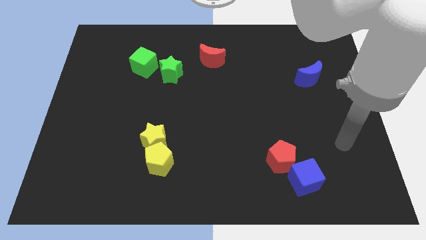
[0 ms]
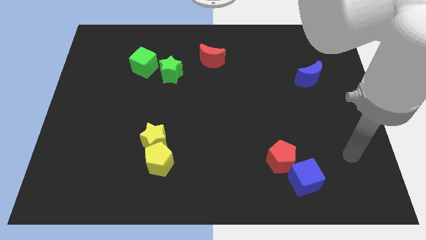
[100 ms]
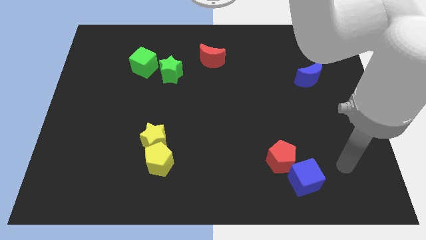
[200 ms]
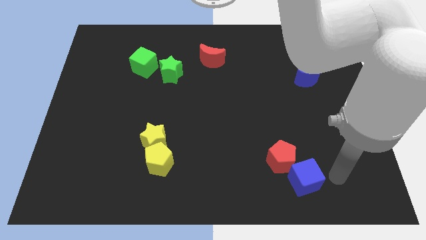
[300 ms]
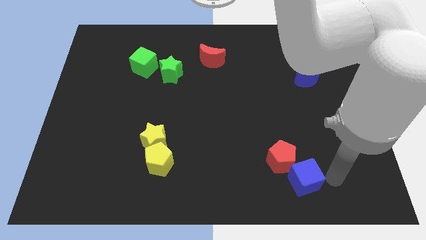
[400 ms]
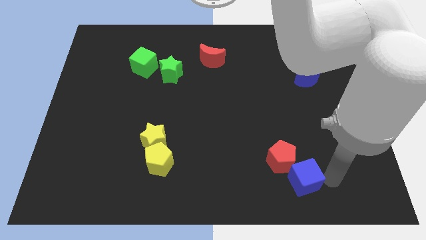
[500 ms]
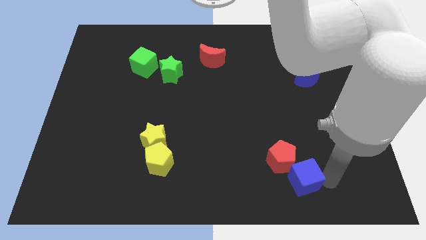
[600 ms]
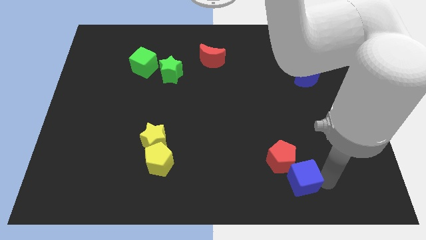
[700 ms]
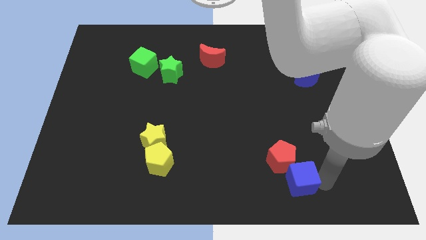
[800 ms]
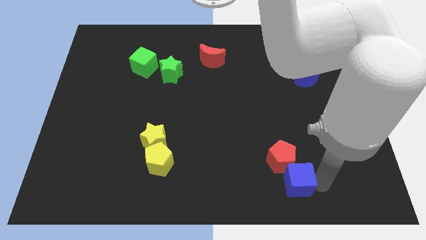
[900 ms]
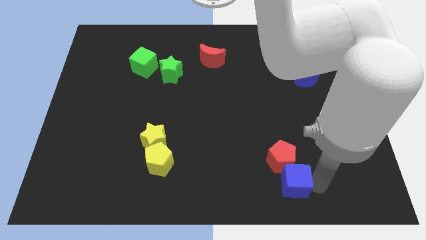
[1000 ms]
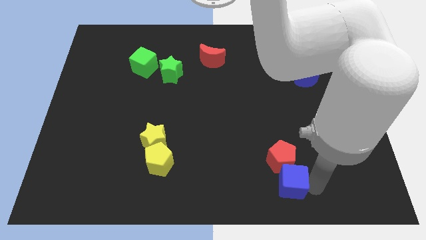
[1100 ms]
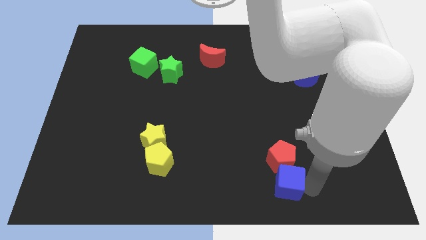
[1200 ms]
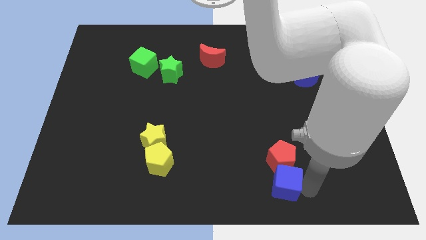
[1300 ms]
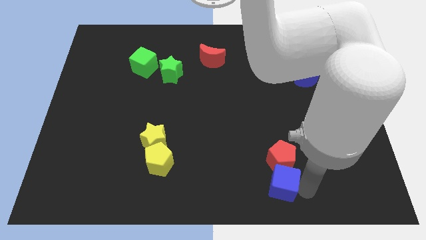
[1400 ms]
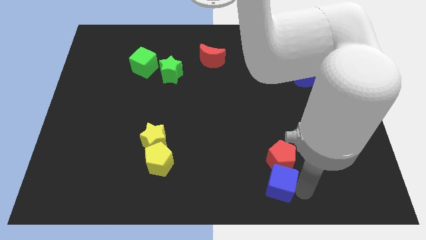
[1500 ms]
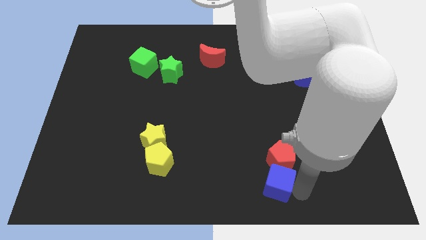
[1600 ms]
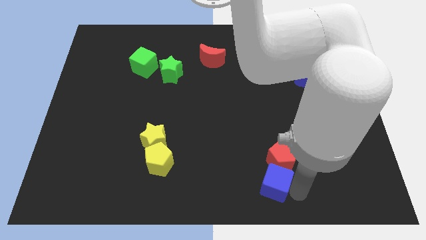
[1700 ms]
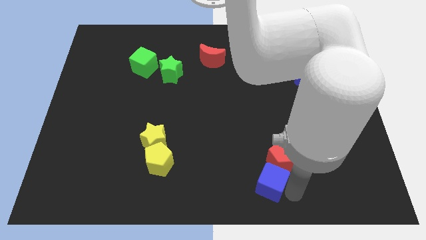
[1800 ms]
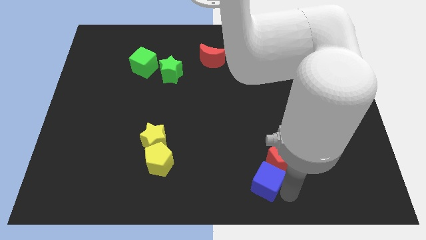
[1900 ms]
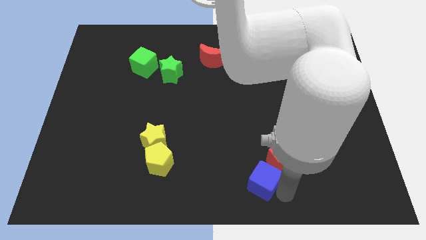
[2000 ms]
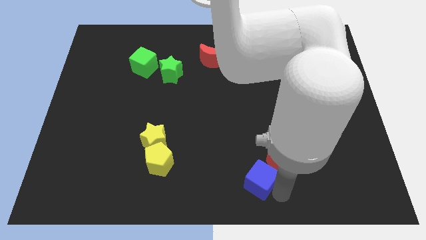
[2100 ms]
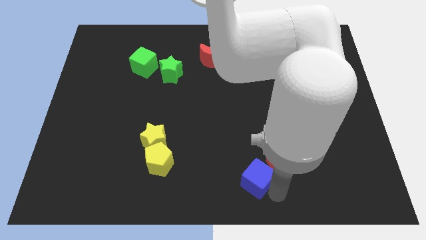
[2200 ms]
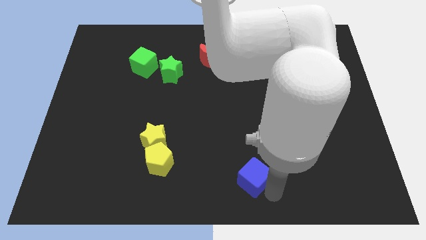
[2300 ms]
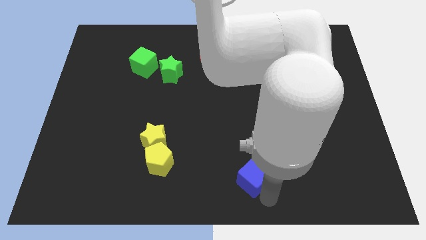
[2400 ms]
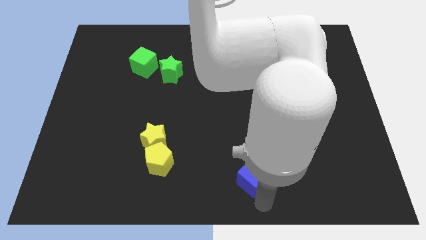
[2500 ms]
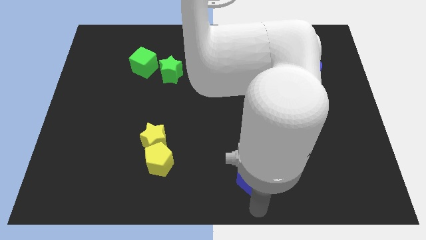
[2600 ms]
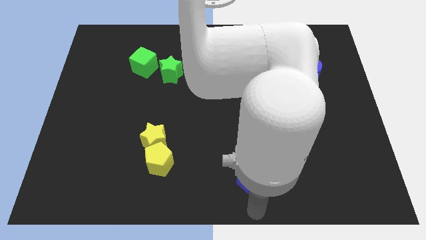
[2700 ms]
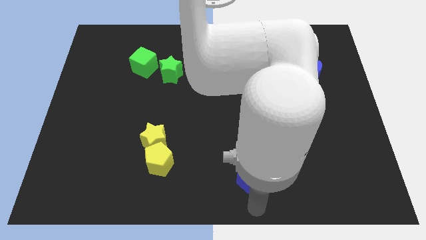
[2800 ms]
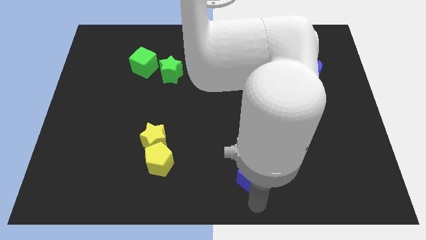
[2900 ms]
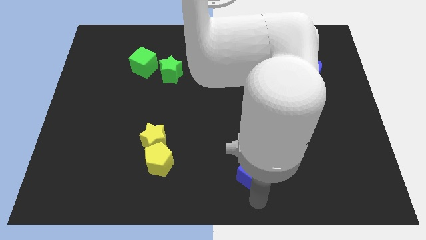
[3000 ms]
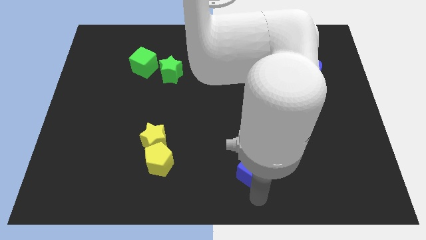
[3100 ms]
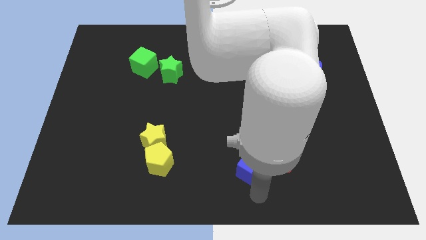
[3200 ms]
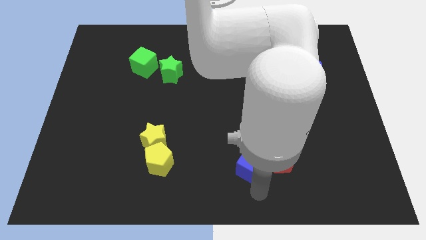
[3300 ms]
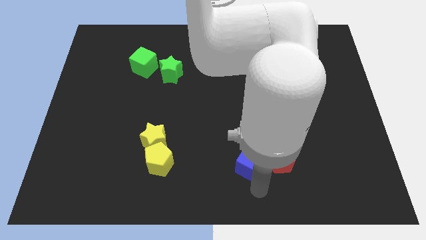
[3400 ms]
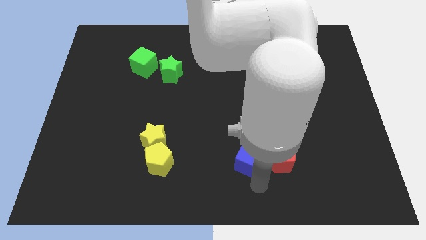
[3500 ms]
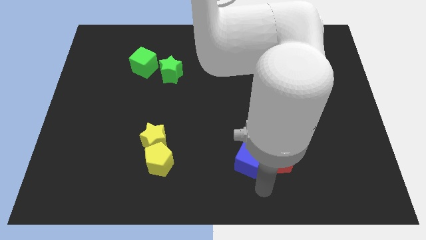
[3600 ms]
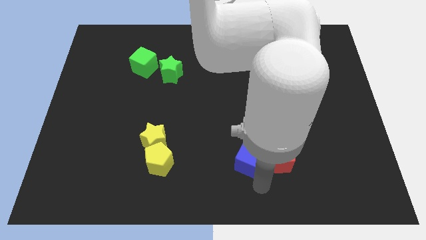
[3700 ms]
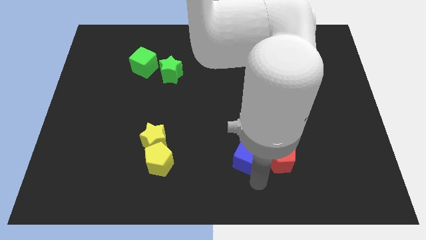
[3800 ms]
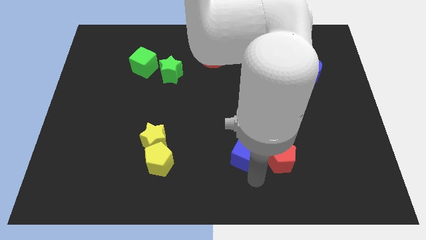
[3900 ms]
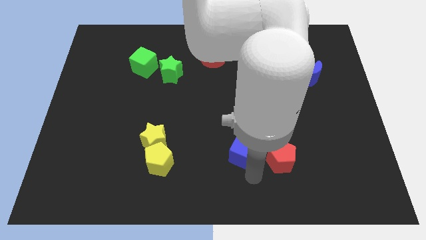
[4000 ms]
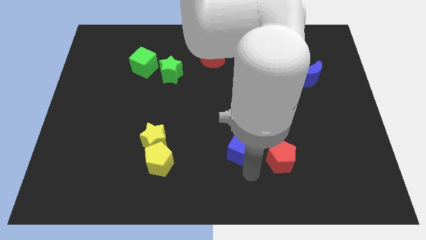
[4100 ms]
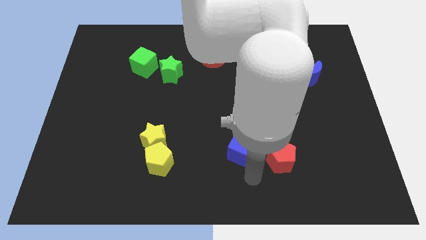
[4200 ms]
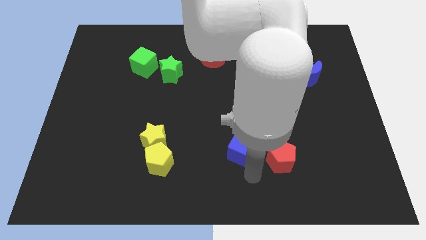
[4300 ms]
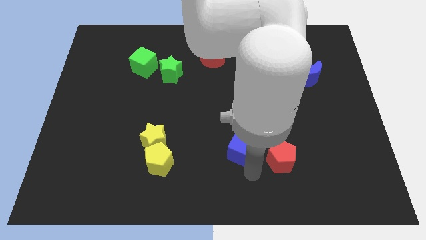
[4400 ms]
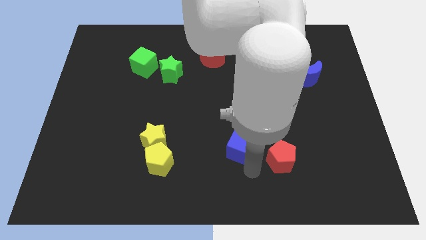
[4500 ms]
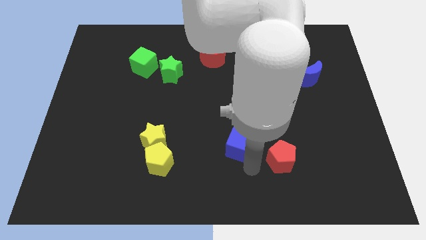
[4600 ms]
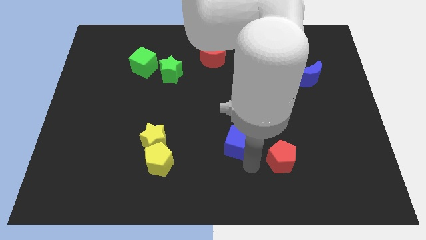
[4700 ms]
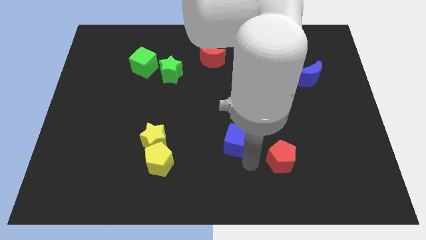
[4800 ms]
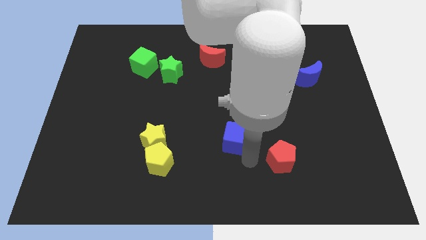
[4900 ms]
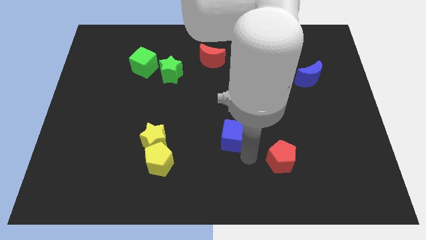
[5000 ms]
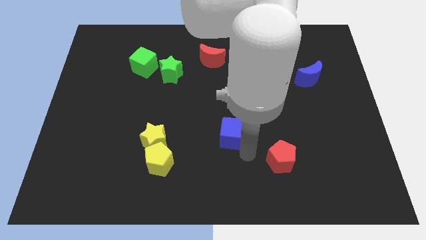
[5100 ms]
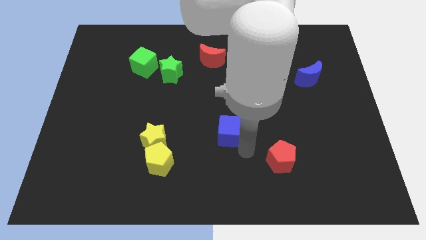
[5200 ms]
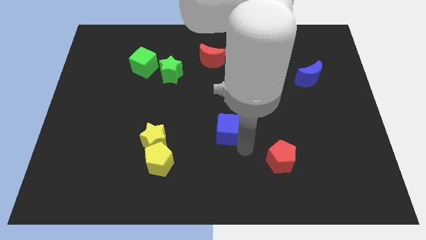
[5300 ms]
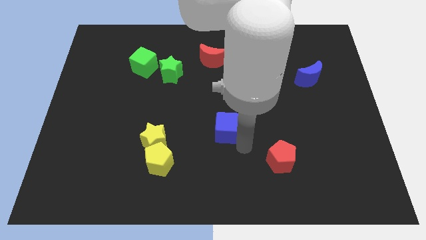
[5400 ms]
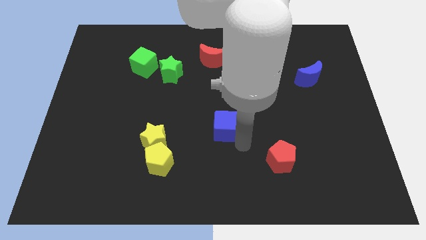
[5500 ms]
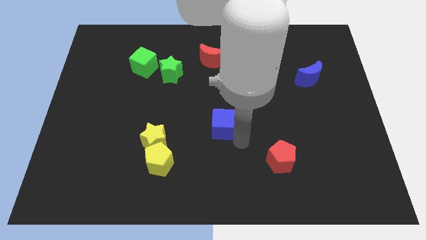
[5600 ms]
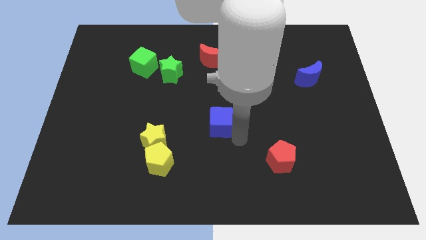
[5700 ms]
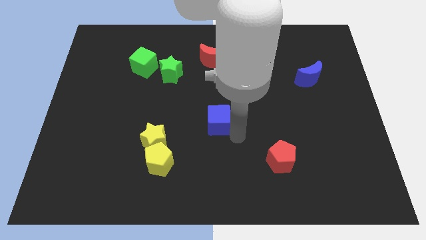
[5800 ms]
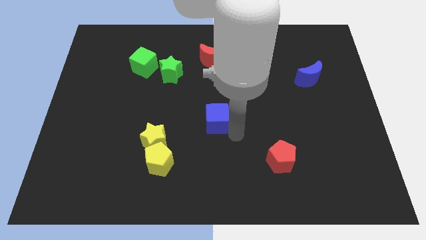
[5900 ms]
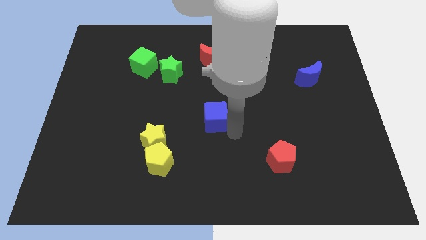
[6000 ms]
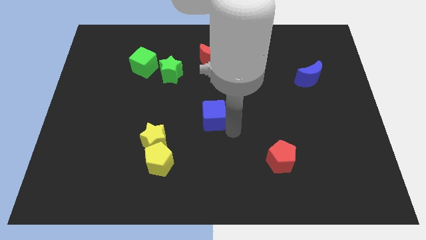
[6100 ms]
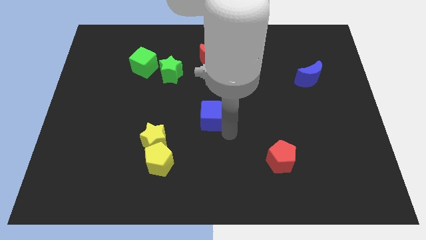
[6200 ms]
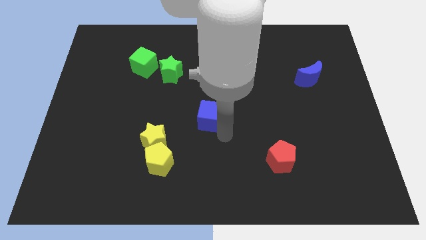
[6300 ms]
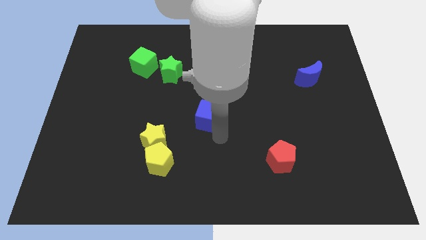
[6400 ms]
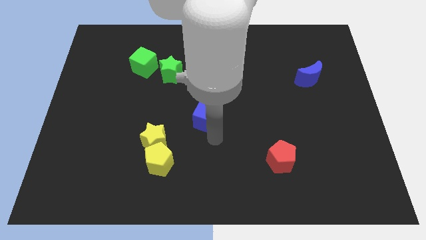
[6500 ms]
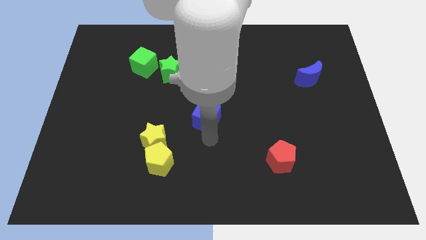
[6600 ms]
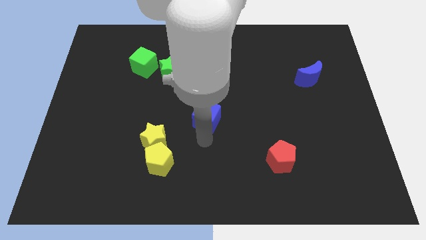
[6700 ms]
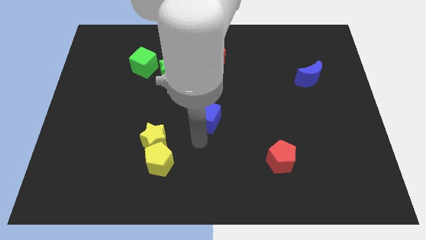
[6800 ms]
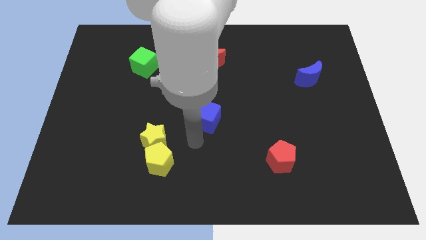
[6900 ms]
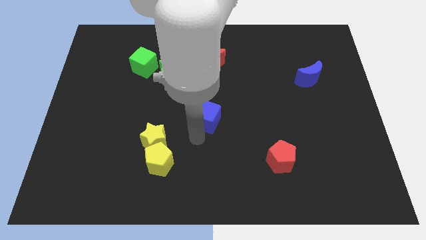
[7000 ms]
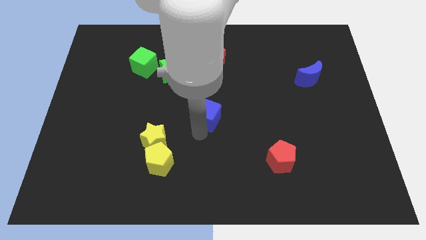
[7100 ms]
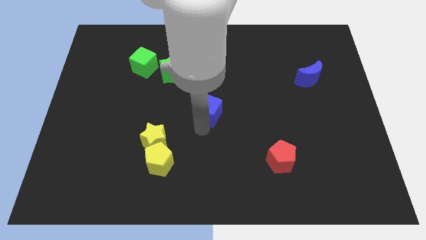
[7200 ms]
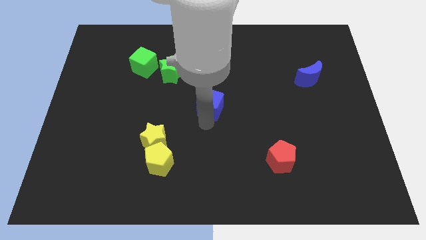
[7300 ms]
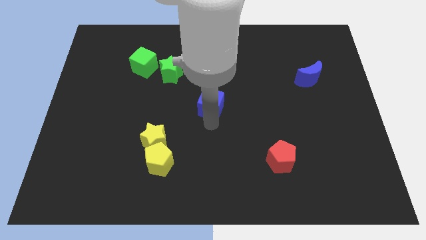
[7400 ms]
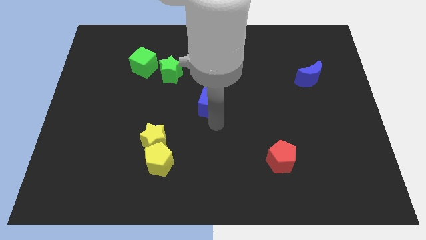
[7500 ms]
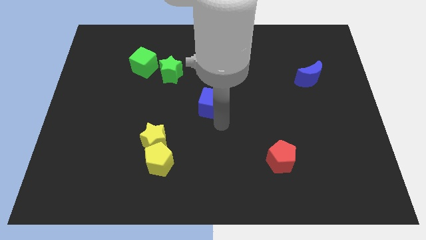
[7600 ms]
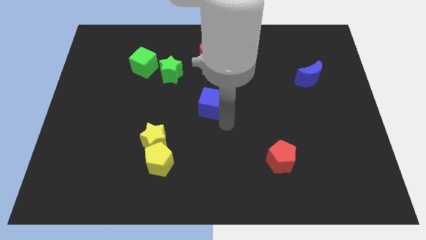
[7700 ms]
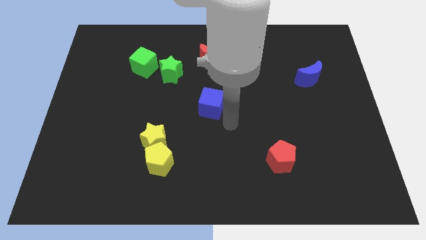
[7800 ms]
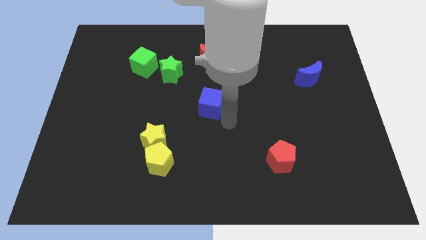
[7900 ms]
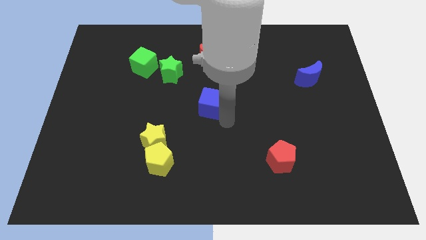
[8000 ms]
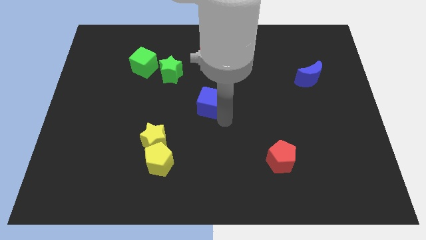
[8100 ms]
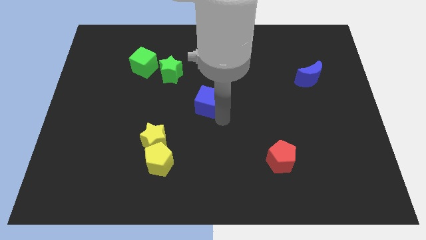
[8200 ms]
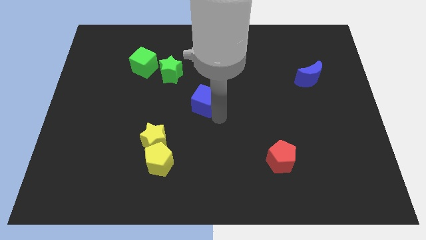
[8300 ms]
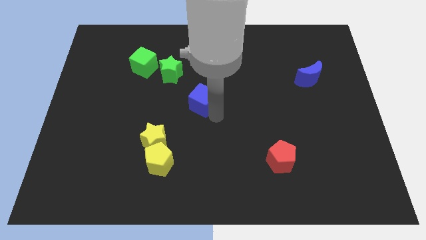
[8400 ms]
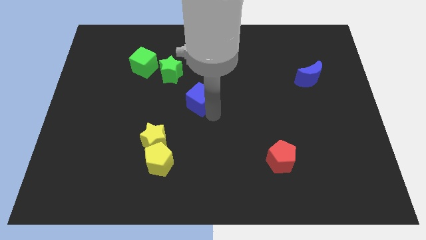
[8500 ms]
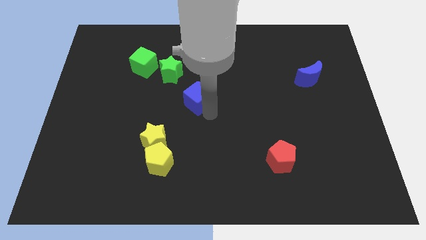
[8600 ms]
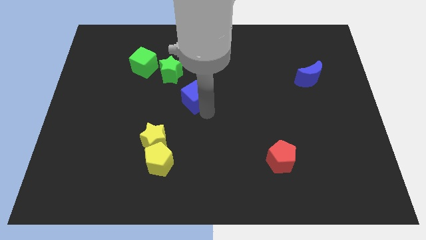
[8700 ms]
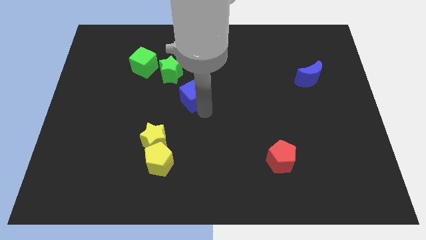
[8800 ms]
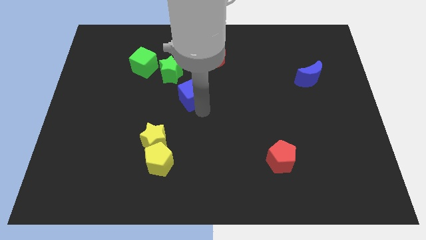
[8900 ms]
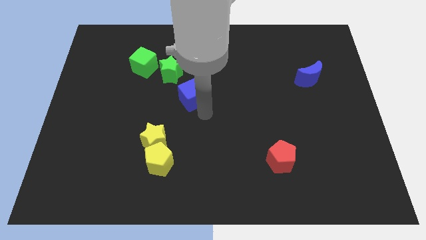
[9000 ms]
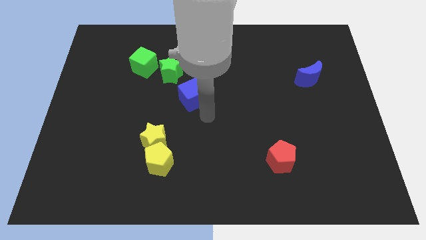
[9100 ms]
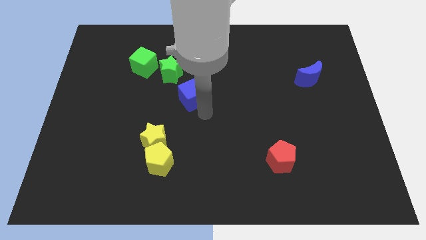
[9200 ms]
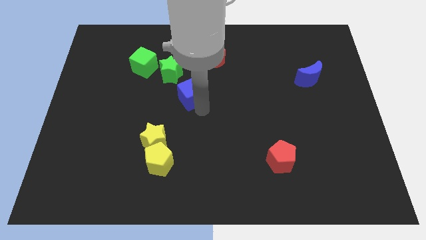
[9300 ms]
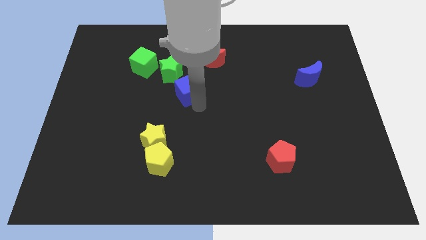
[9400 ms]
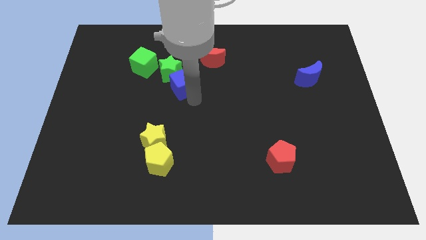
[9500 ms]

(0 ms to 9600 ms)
push the blue cube next to the green star
